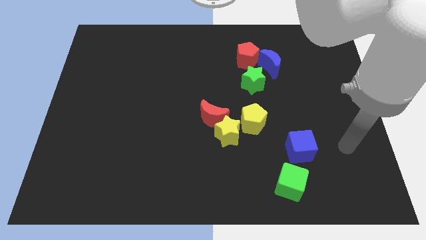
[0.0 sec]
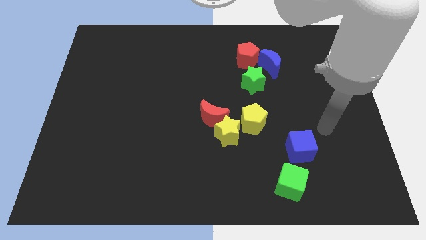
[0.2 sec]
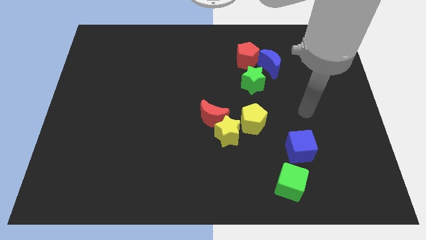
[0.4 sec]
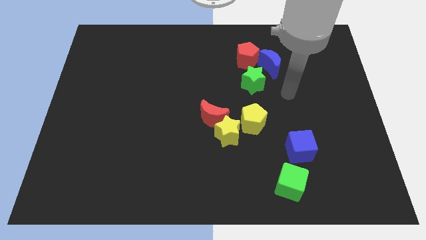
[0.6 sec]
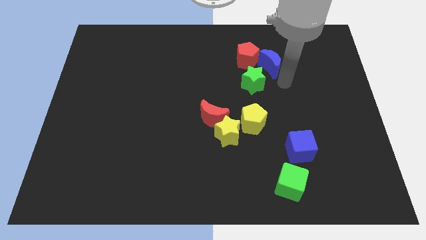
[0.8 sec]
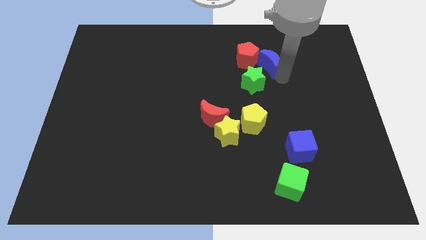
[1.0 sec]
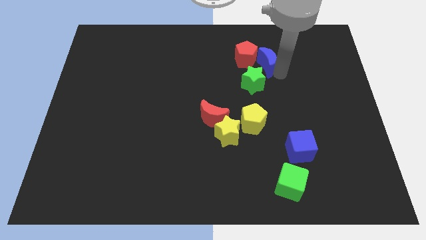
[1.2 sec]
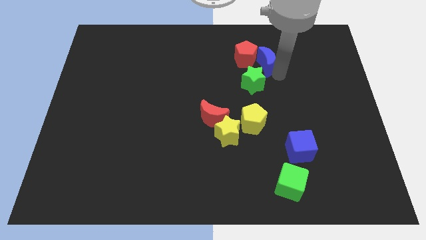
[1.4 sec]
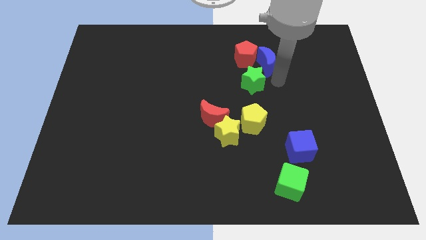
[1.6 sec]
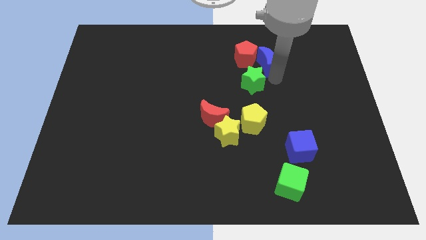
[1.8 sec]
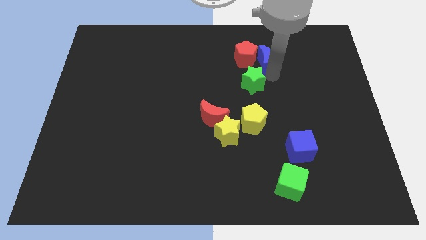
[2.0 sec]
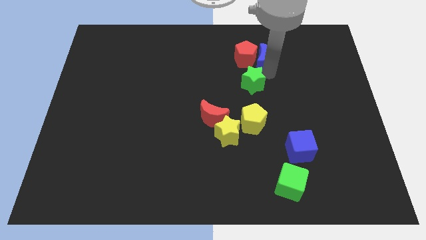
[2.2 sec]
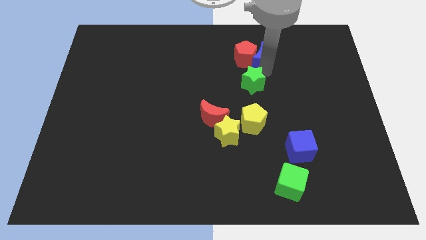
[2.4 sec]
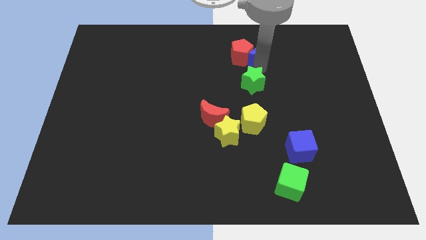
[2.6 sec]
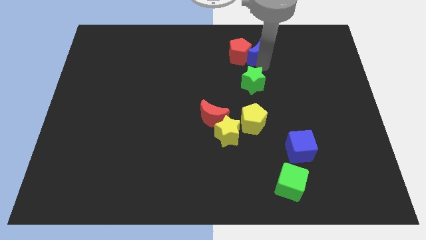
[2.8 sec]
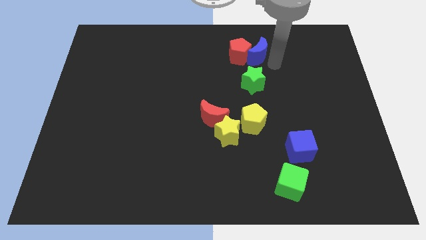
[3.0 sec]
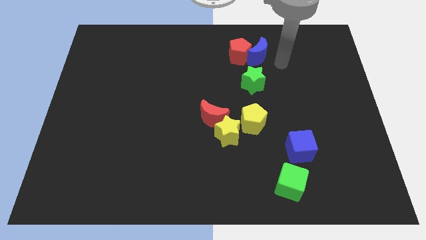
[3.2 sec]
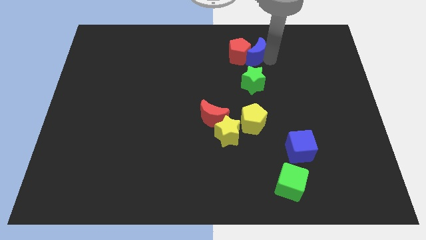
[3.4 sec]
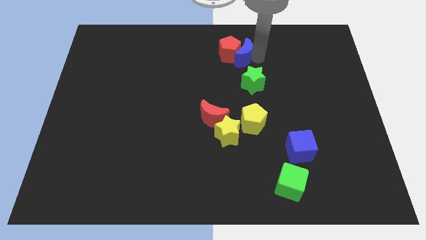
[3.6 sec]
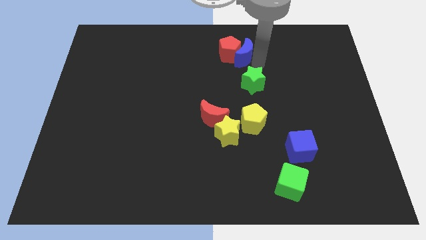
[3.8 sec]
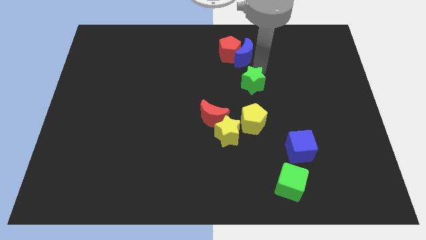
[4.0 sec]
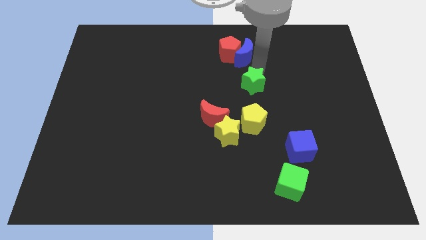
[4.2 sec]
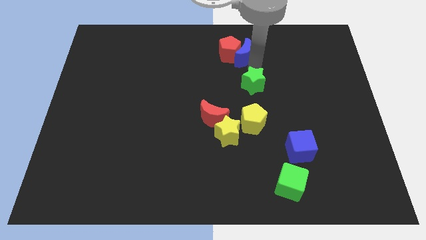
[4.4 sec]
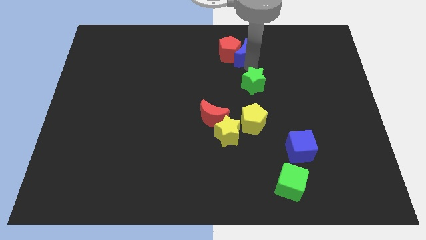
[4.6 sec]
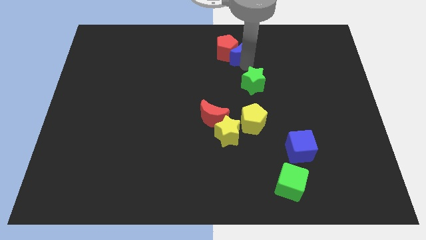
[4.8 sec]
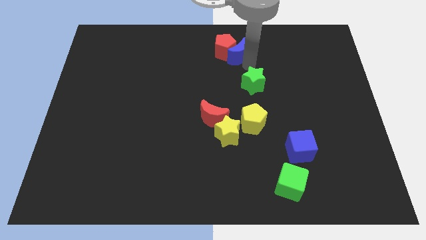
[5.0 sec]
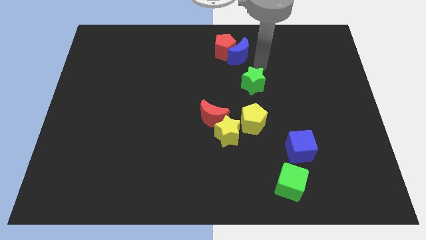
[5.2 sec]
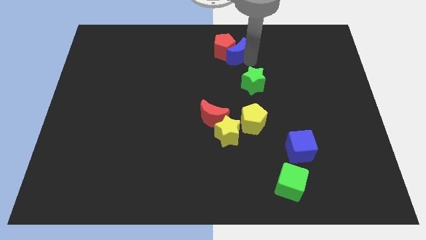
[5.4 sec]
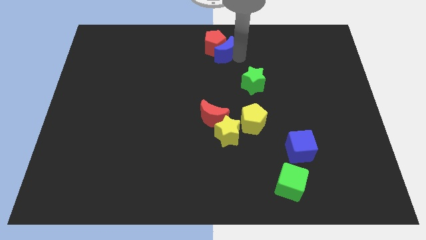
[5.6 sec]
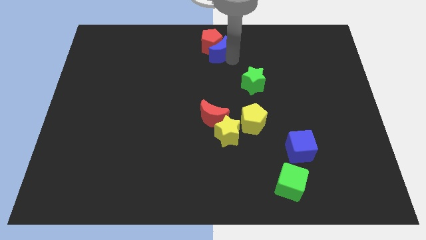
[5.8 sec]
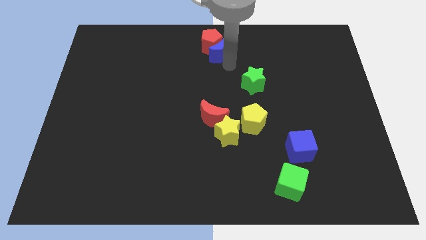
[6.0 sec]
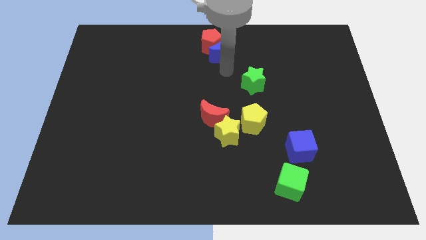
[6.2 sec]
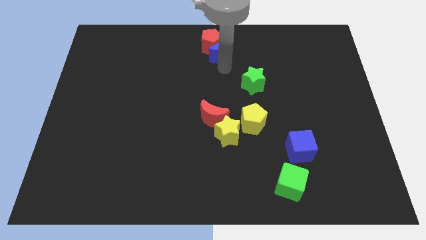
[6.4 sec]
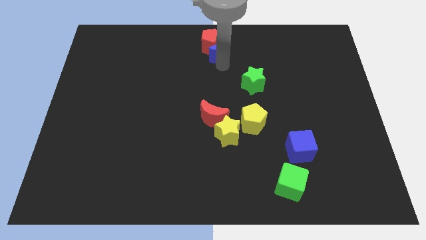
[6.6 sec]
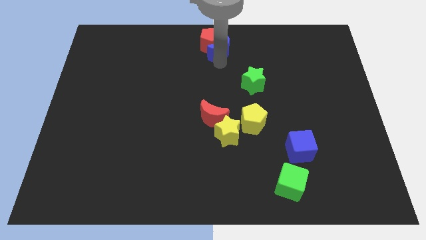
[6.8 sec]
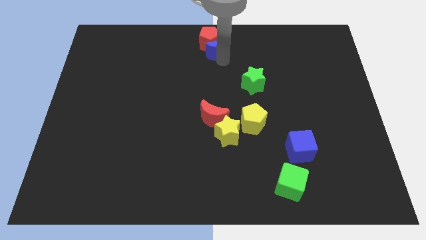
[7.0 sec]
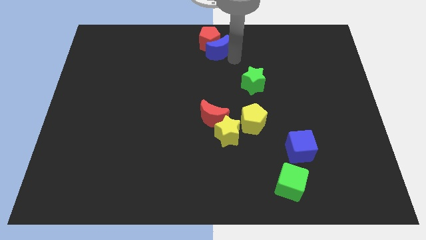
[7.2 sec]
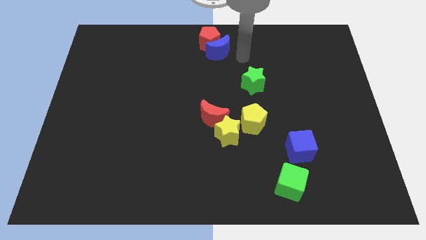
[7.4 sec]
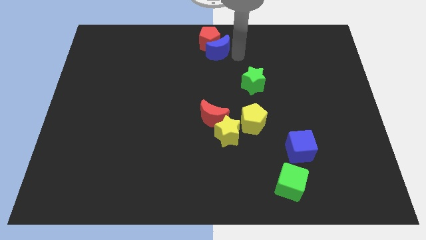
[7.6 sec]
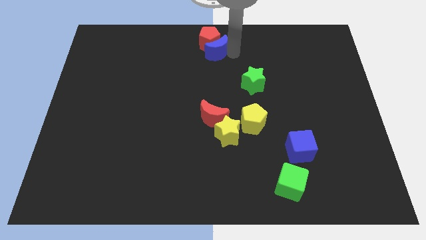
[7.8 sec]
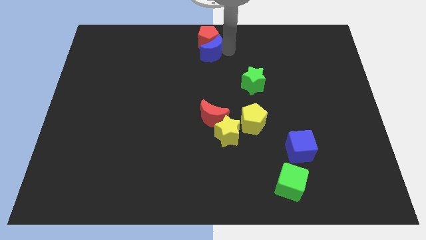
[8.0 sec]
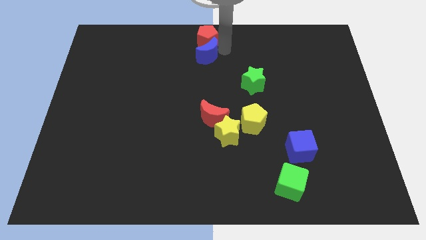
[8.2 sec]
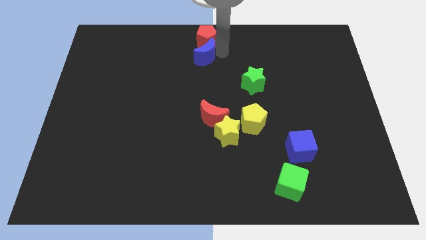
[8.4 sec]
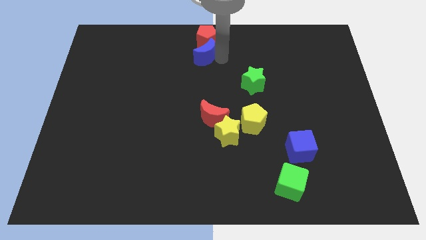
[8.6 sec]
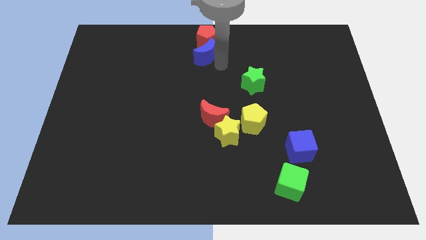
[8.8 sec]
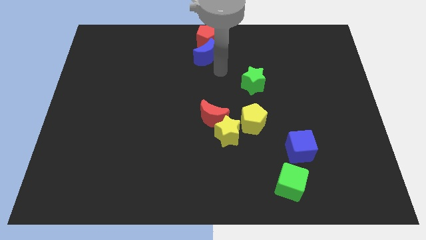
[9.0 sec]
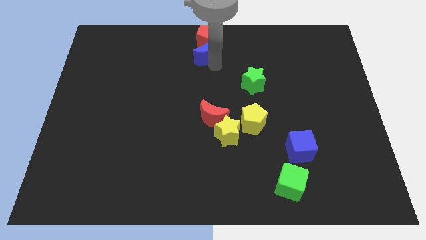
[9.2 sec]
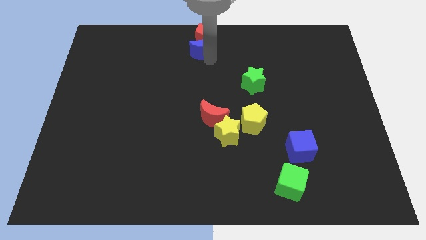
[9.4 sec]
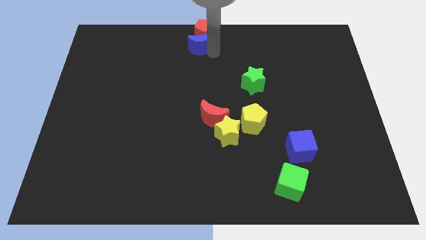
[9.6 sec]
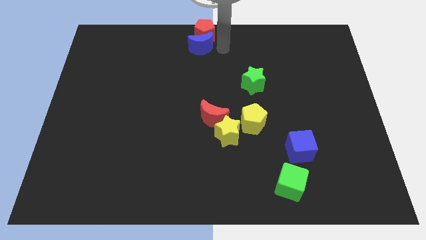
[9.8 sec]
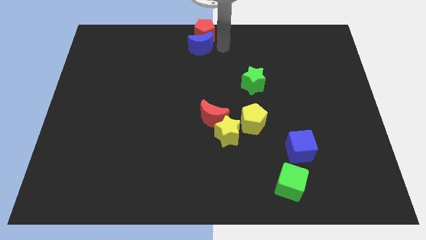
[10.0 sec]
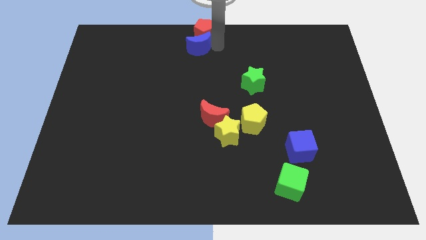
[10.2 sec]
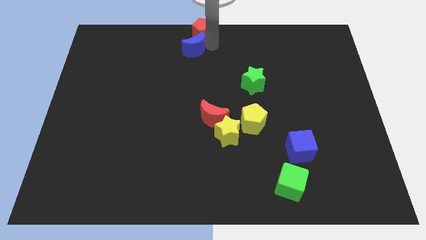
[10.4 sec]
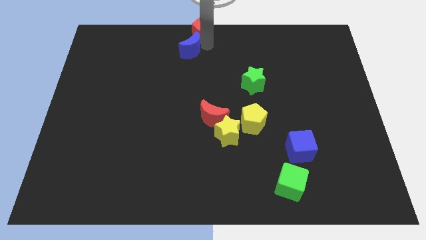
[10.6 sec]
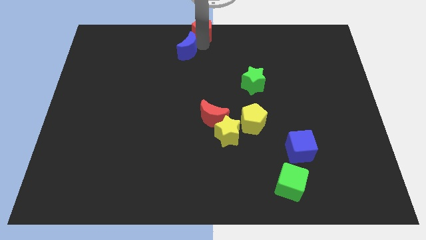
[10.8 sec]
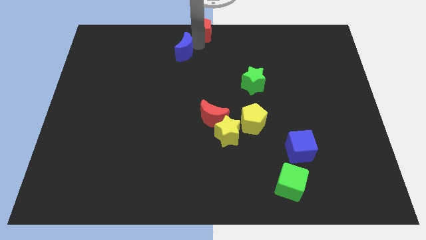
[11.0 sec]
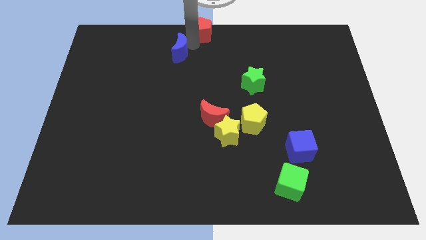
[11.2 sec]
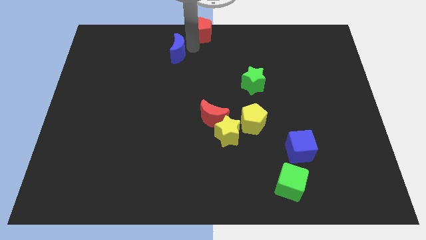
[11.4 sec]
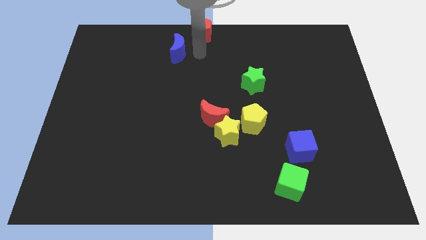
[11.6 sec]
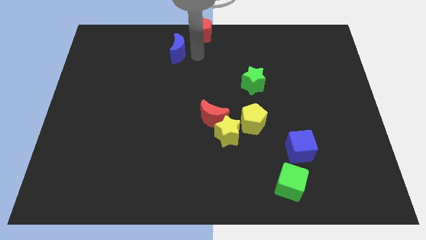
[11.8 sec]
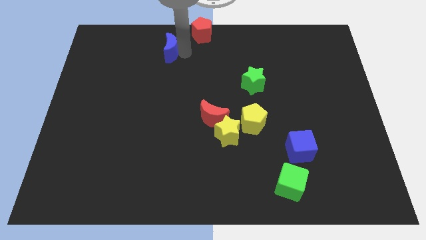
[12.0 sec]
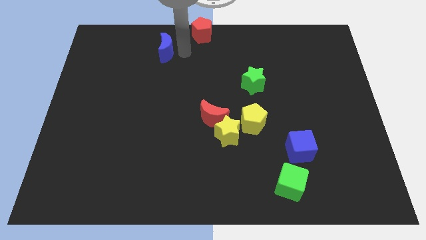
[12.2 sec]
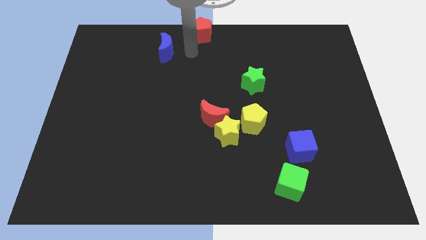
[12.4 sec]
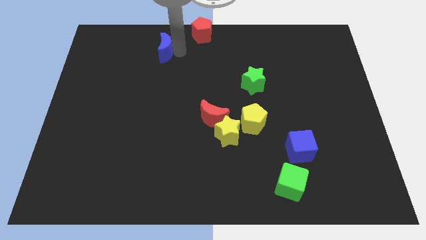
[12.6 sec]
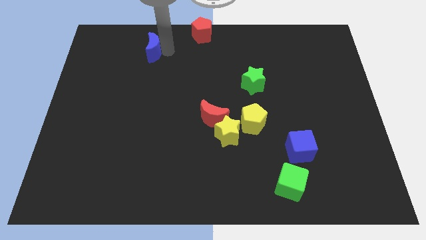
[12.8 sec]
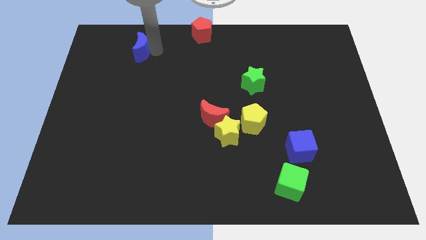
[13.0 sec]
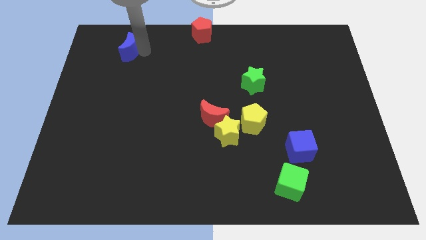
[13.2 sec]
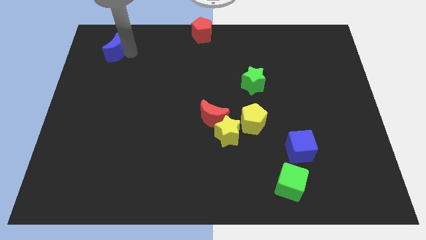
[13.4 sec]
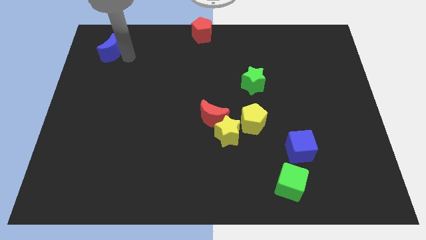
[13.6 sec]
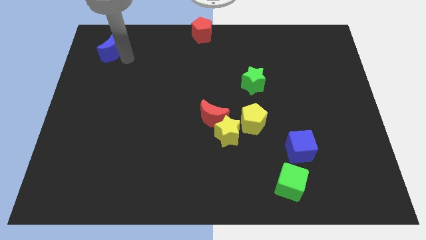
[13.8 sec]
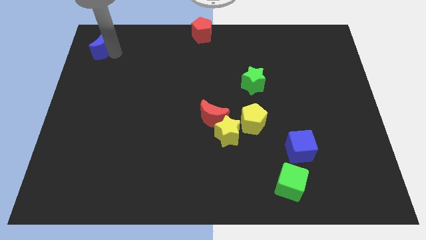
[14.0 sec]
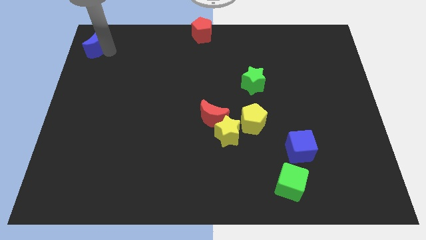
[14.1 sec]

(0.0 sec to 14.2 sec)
slide the blue moon to the top left

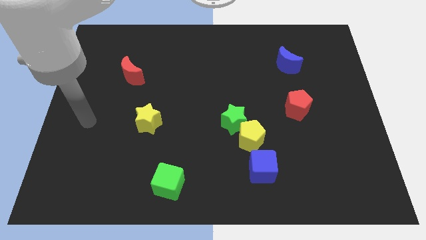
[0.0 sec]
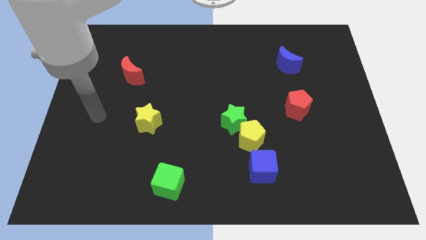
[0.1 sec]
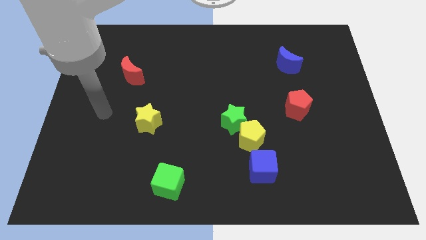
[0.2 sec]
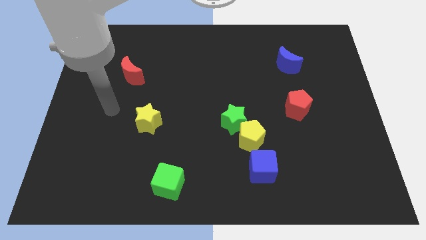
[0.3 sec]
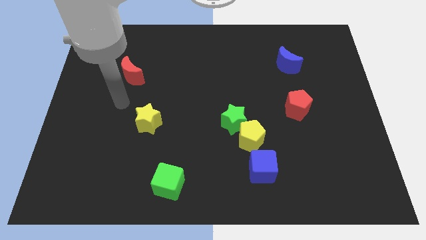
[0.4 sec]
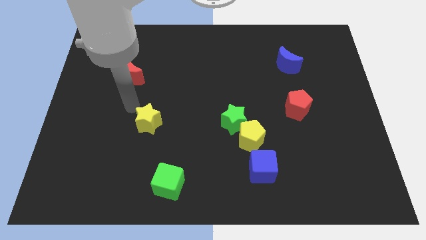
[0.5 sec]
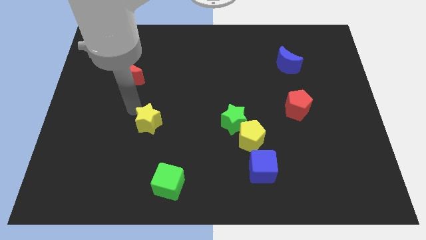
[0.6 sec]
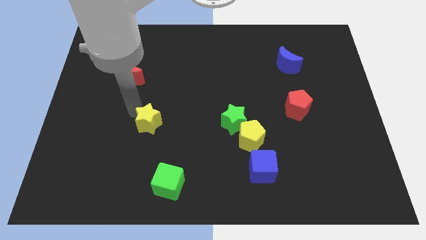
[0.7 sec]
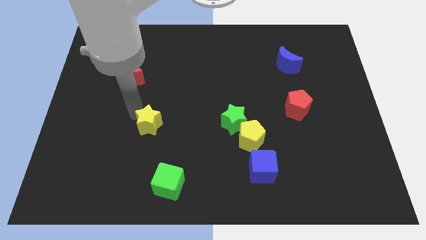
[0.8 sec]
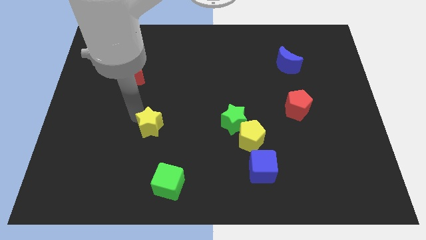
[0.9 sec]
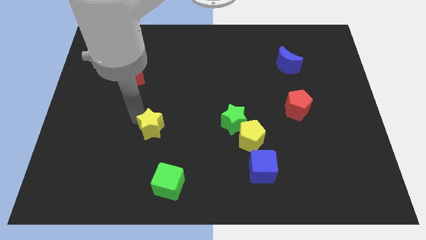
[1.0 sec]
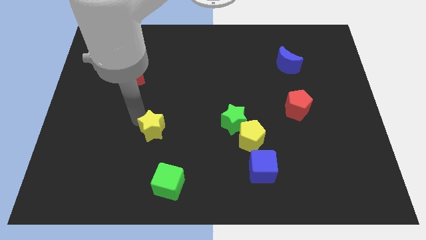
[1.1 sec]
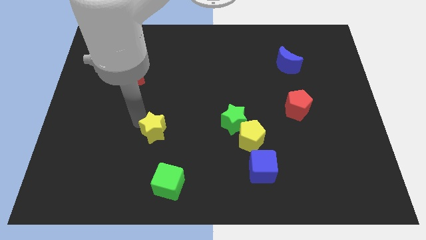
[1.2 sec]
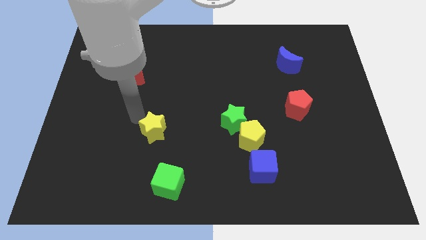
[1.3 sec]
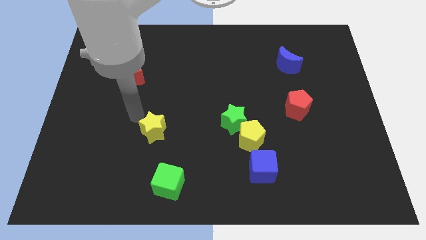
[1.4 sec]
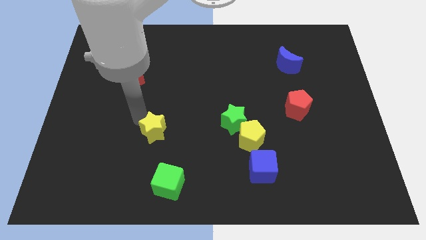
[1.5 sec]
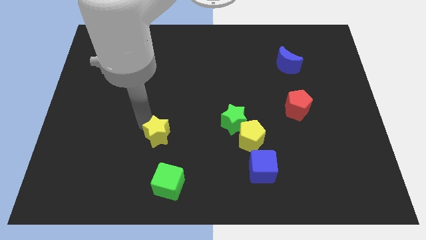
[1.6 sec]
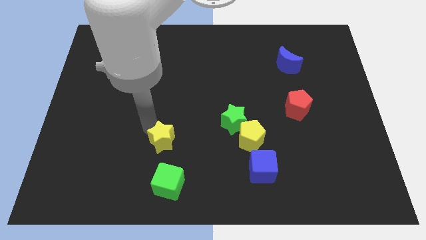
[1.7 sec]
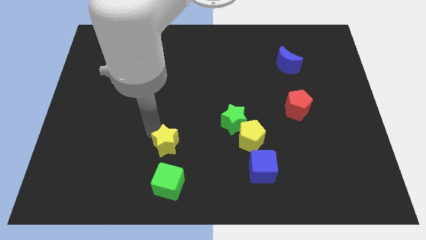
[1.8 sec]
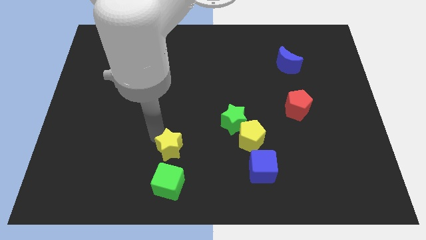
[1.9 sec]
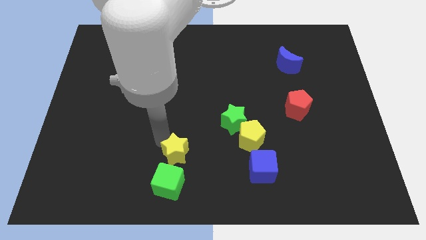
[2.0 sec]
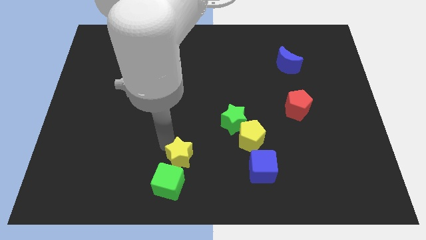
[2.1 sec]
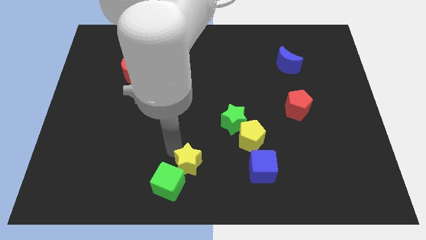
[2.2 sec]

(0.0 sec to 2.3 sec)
put the yellow star to the bottom
